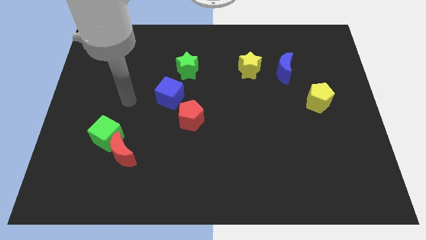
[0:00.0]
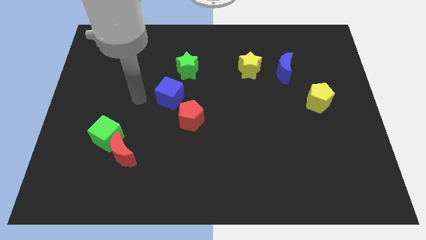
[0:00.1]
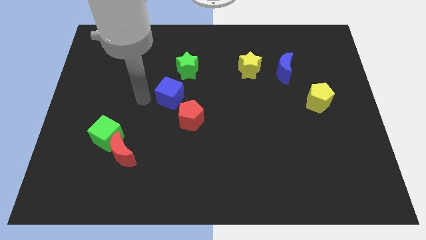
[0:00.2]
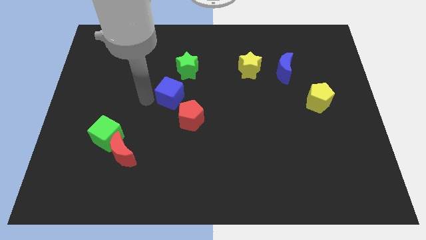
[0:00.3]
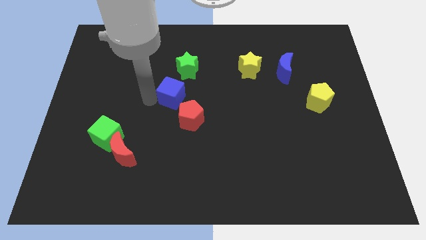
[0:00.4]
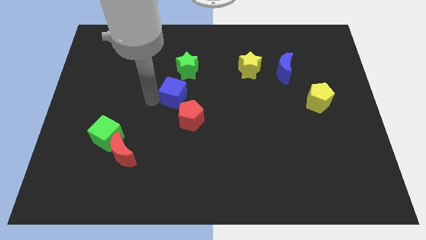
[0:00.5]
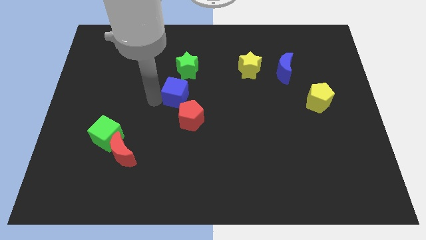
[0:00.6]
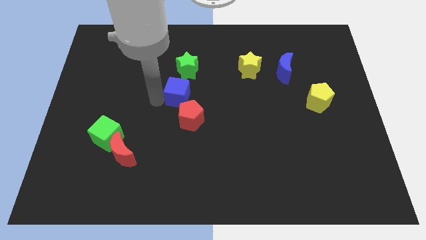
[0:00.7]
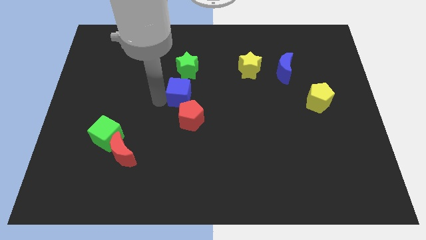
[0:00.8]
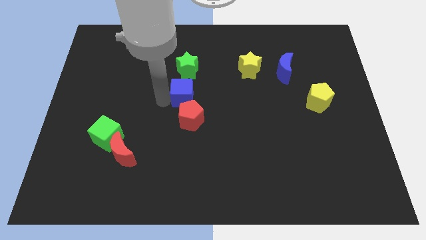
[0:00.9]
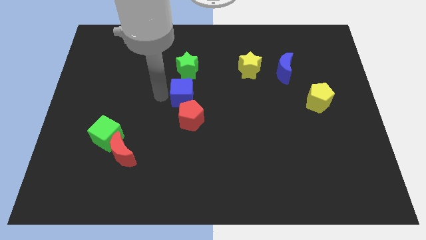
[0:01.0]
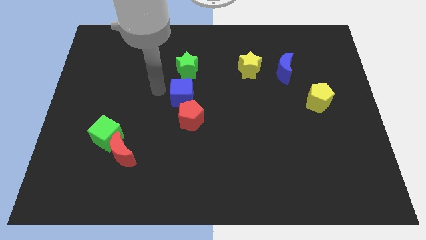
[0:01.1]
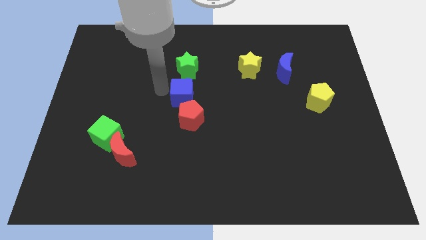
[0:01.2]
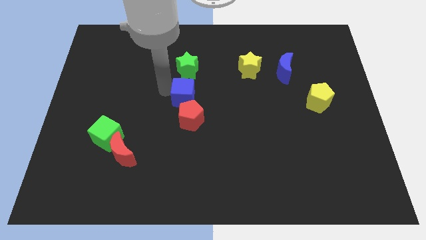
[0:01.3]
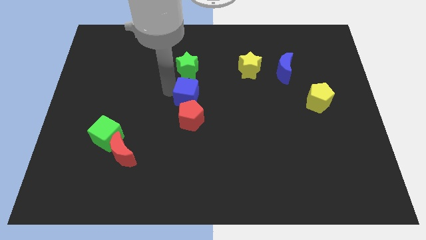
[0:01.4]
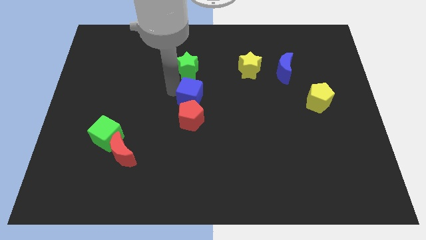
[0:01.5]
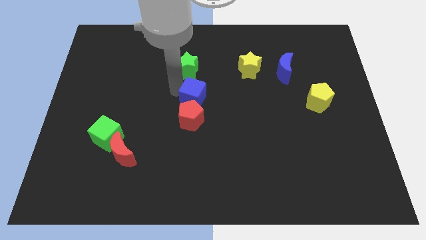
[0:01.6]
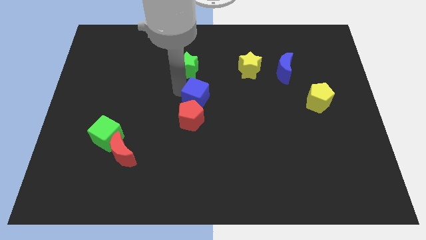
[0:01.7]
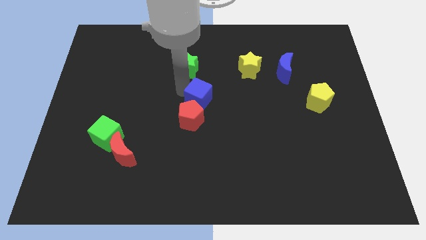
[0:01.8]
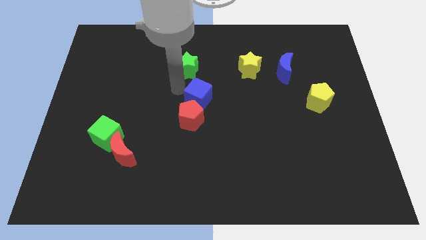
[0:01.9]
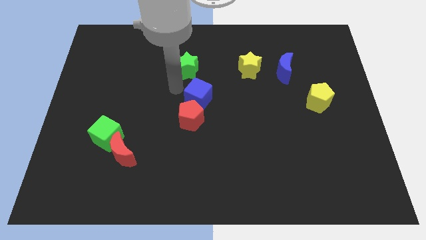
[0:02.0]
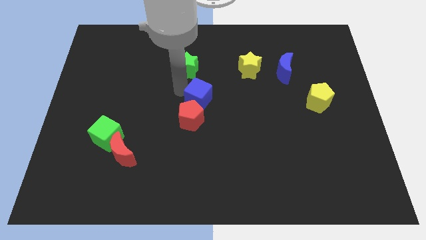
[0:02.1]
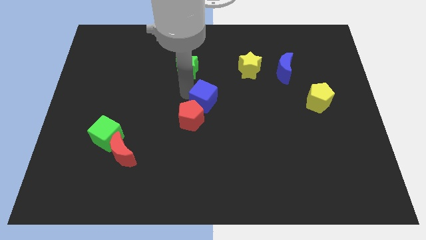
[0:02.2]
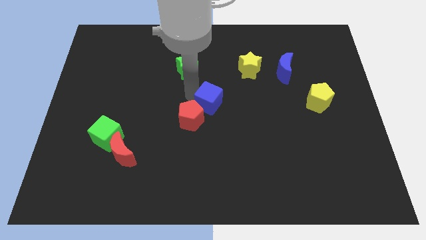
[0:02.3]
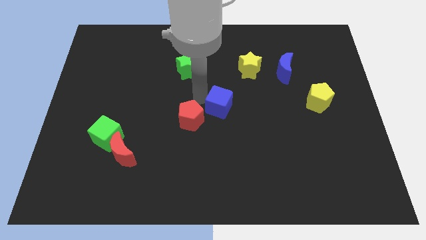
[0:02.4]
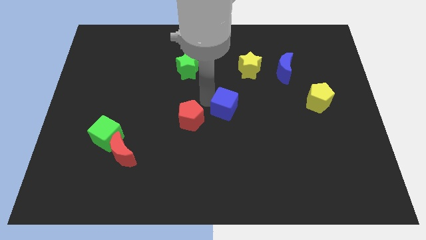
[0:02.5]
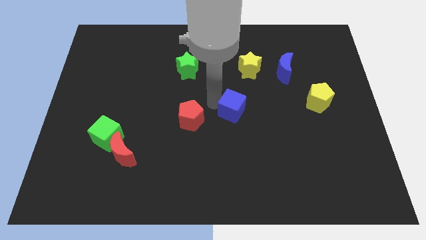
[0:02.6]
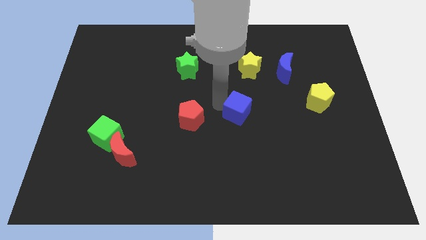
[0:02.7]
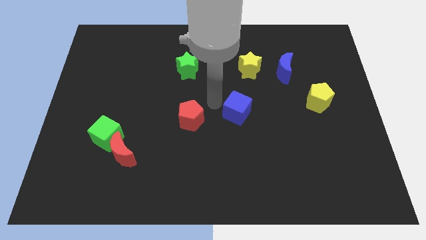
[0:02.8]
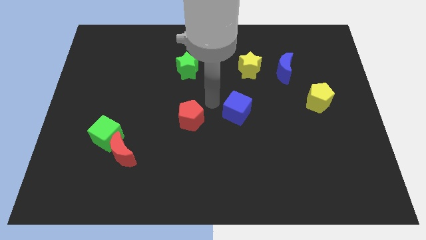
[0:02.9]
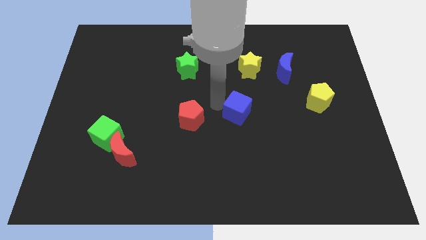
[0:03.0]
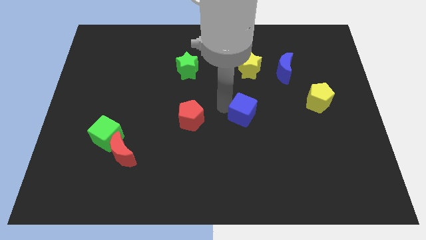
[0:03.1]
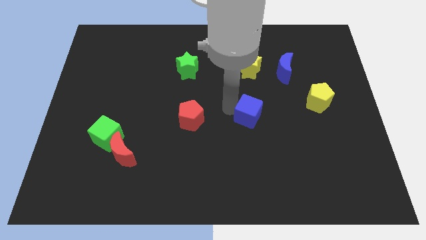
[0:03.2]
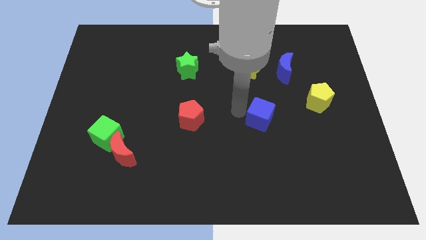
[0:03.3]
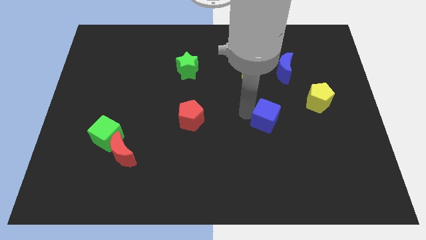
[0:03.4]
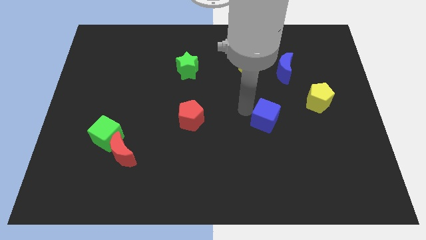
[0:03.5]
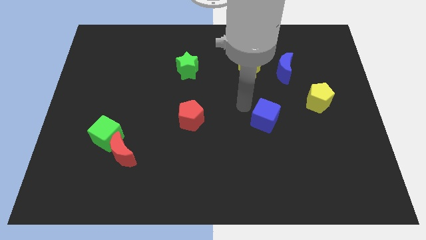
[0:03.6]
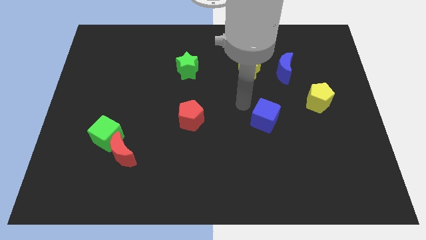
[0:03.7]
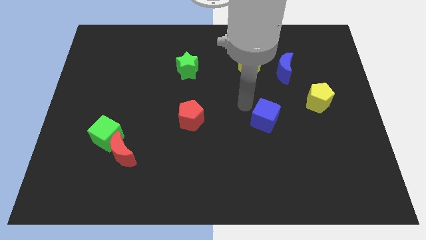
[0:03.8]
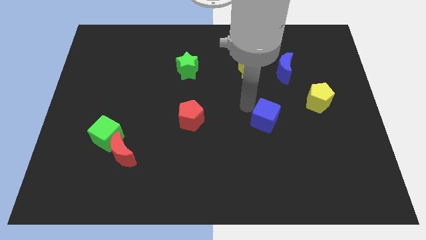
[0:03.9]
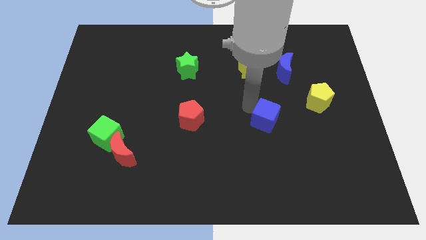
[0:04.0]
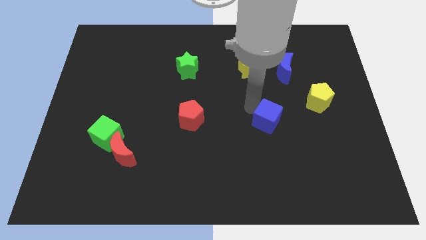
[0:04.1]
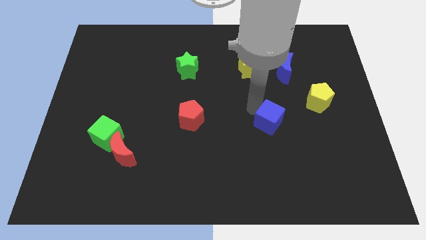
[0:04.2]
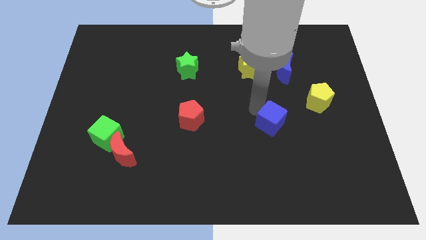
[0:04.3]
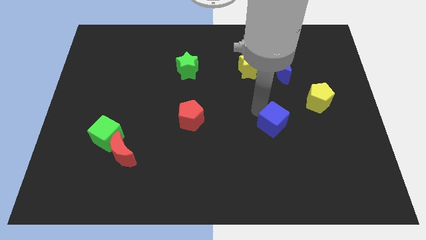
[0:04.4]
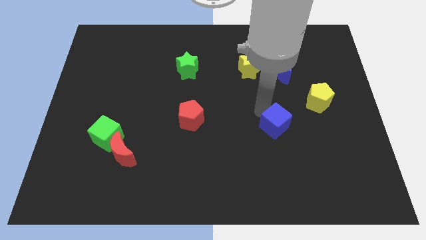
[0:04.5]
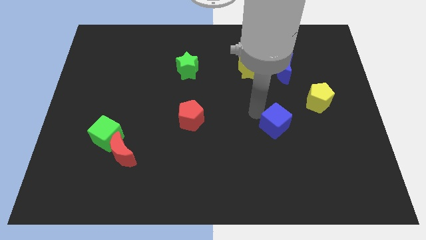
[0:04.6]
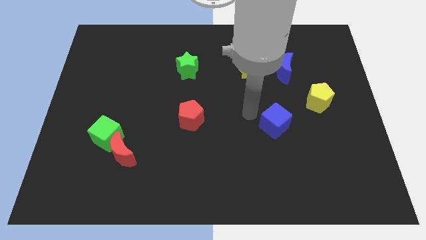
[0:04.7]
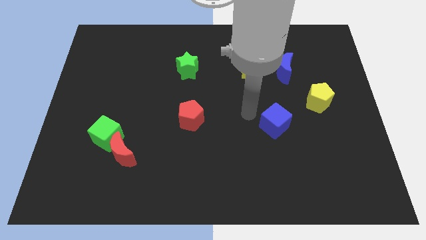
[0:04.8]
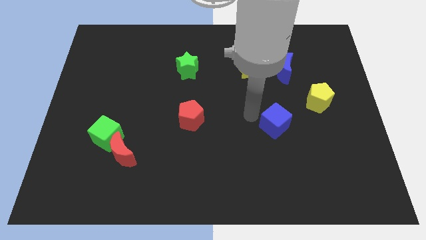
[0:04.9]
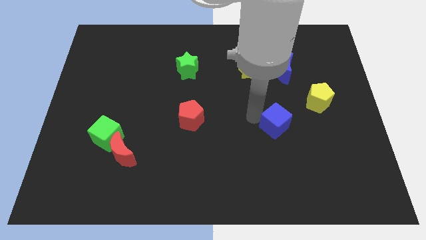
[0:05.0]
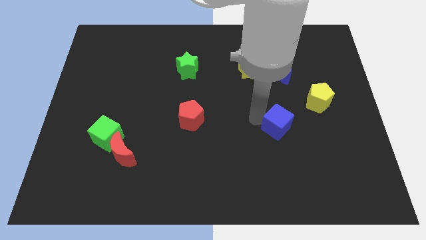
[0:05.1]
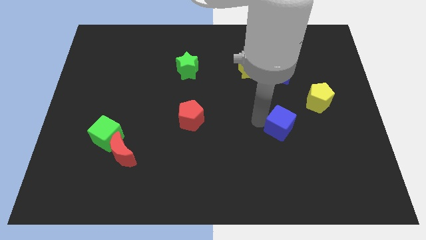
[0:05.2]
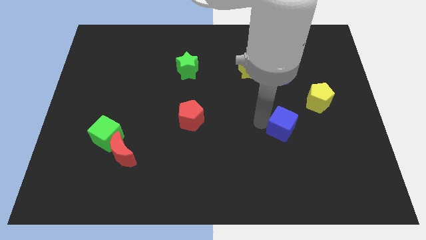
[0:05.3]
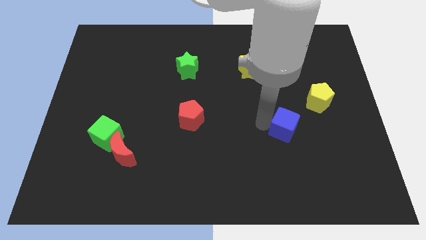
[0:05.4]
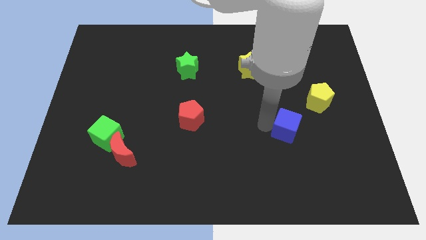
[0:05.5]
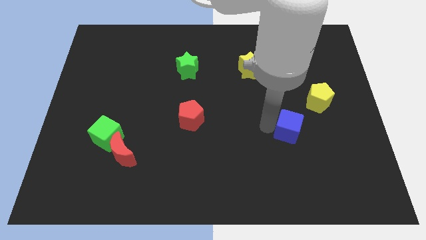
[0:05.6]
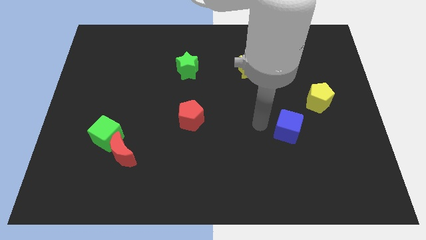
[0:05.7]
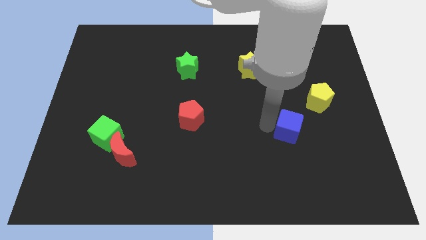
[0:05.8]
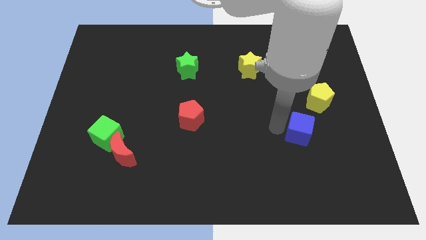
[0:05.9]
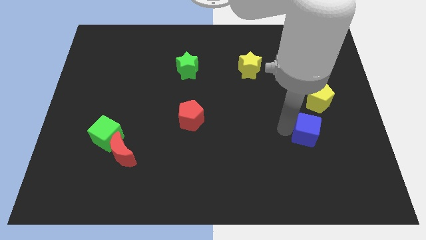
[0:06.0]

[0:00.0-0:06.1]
put the blue cube below the yellow pentagon

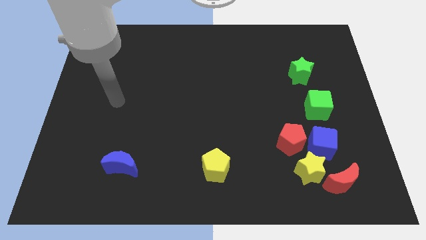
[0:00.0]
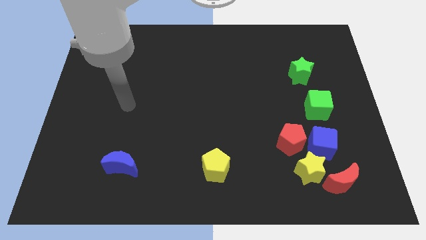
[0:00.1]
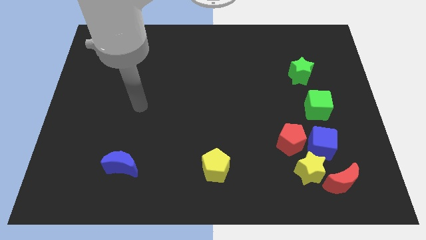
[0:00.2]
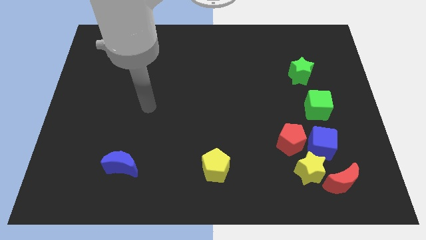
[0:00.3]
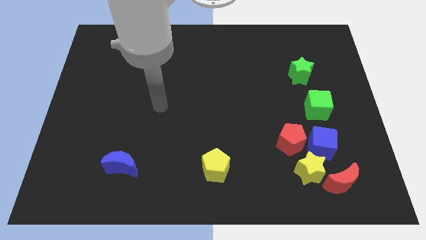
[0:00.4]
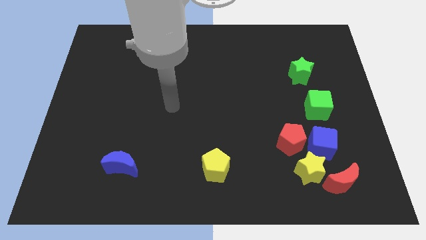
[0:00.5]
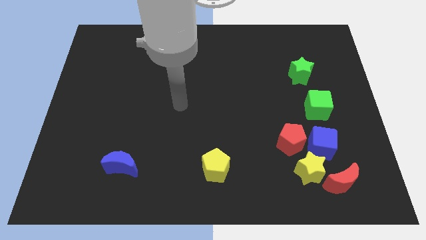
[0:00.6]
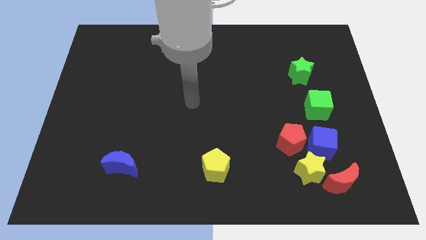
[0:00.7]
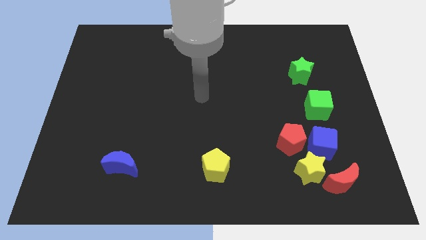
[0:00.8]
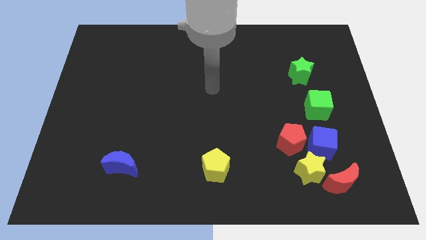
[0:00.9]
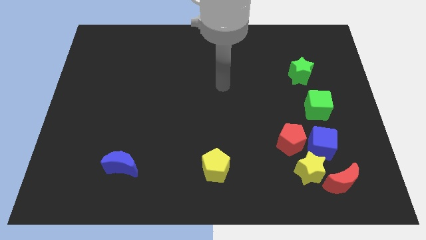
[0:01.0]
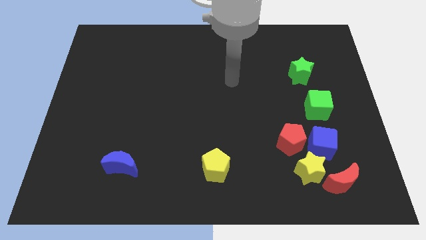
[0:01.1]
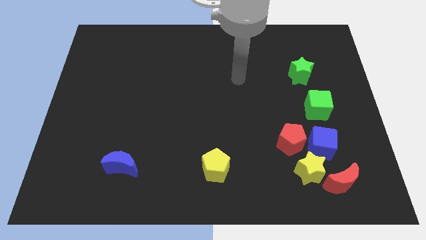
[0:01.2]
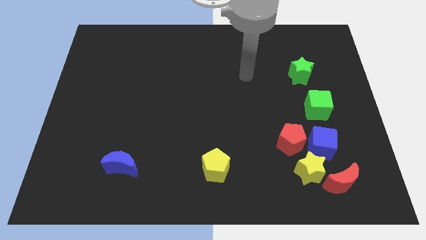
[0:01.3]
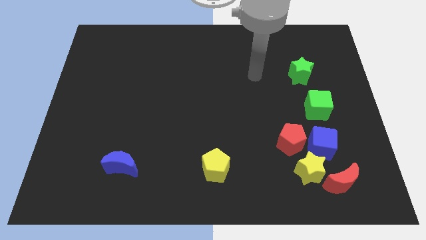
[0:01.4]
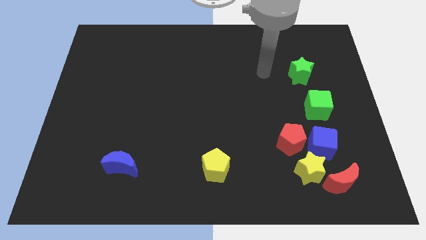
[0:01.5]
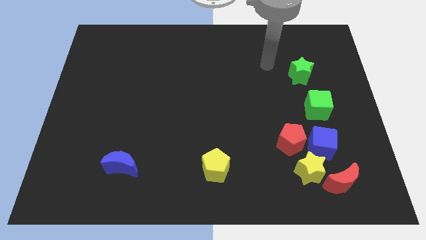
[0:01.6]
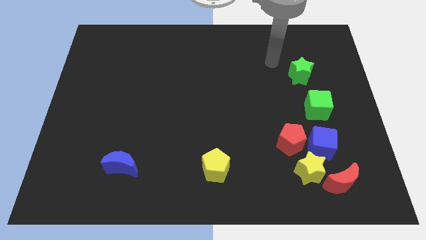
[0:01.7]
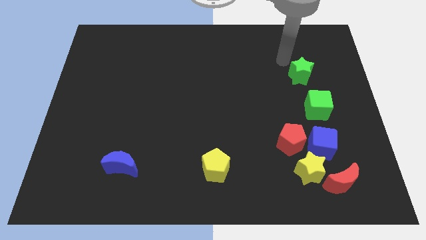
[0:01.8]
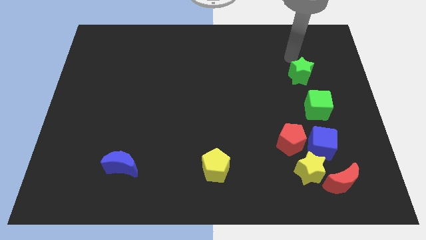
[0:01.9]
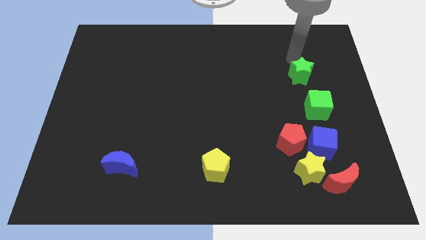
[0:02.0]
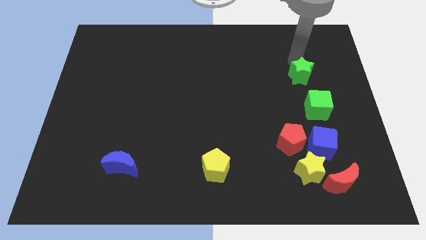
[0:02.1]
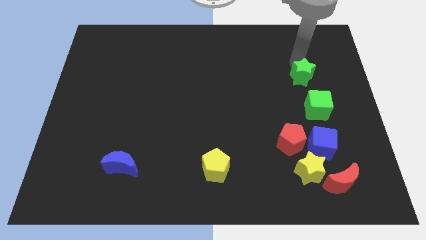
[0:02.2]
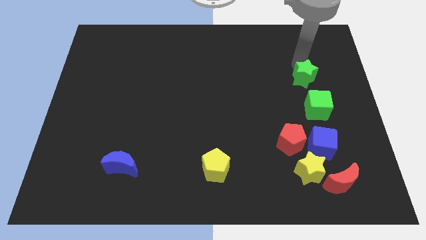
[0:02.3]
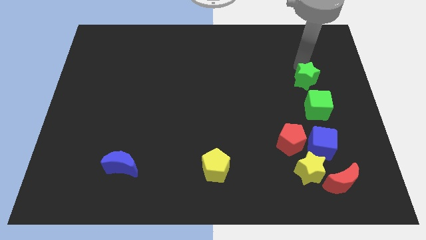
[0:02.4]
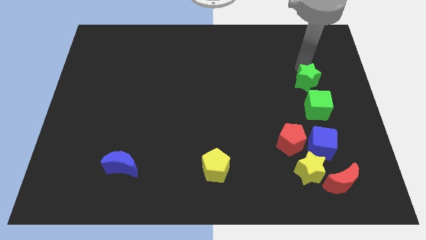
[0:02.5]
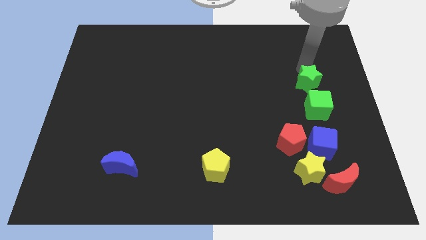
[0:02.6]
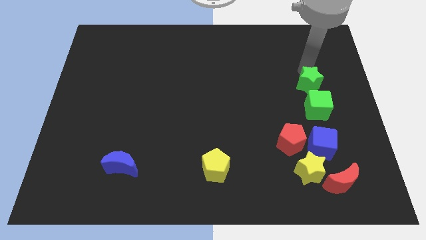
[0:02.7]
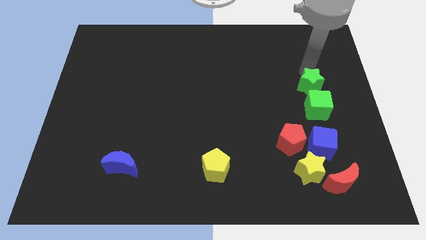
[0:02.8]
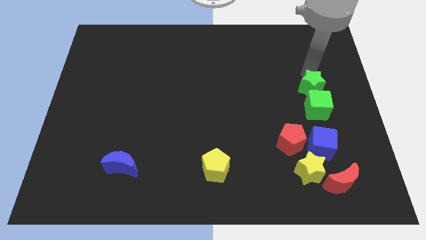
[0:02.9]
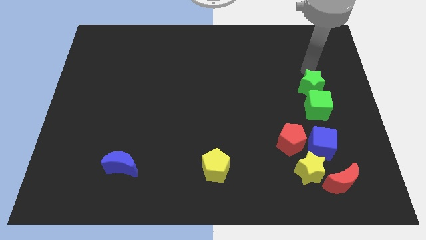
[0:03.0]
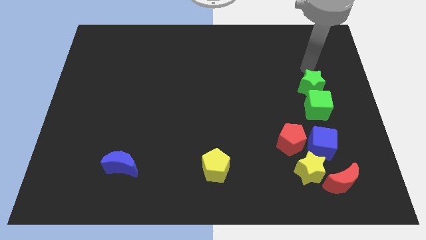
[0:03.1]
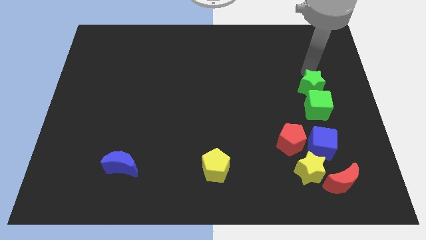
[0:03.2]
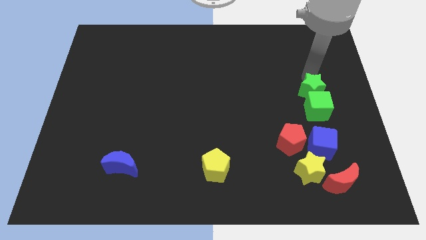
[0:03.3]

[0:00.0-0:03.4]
push the green star to the top of the blue cube
